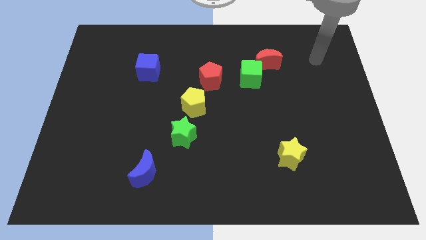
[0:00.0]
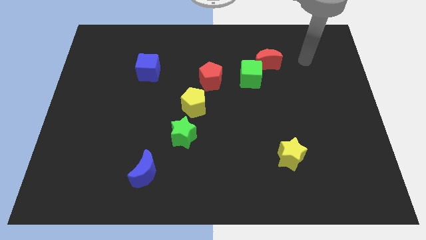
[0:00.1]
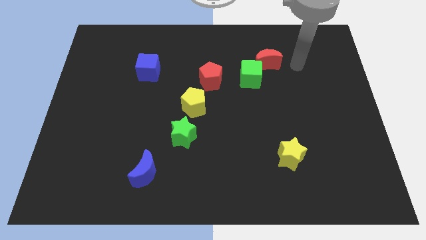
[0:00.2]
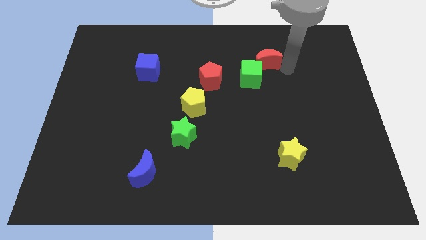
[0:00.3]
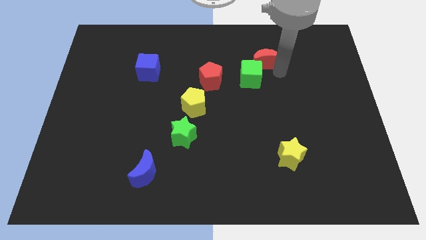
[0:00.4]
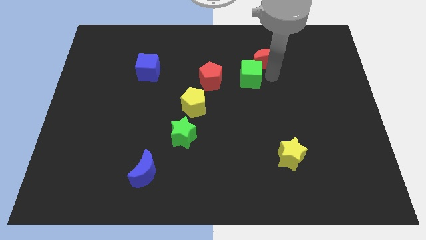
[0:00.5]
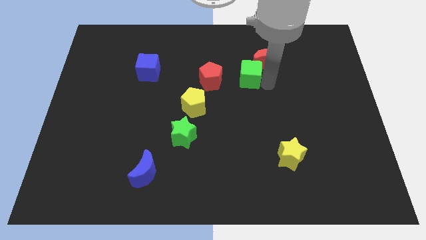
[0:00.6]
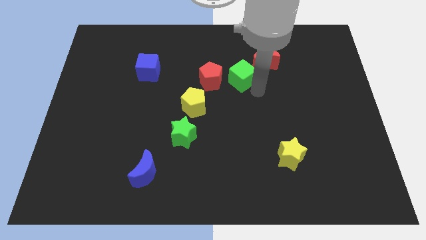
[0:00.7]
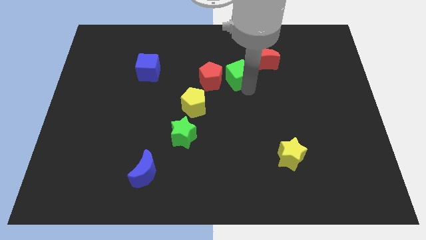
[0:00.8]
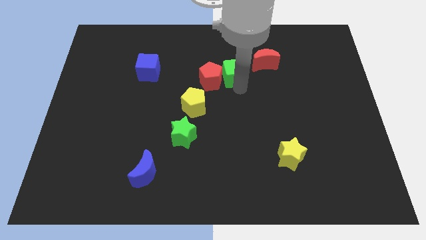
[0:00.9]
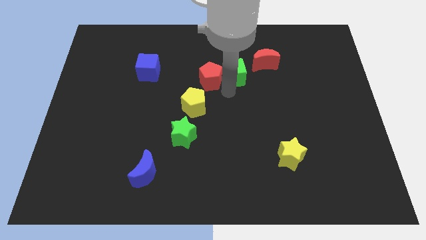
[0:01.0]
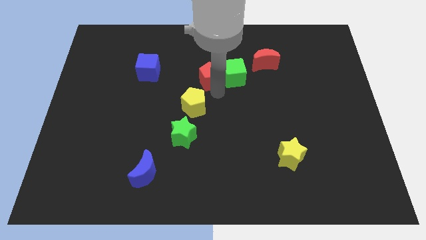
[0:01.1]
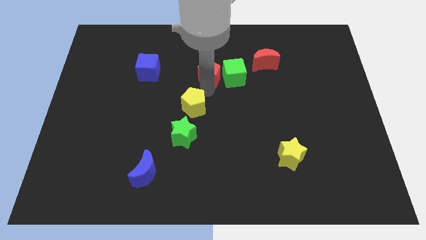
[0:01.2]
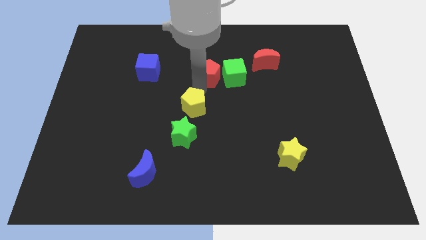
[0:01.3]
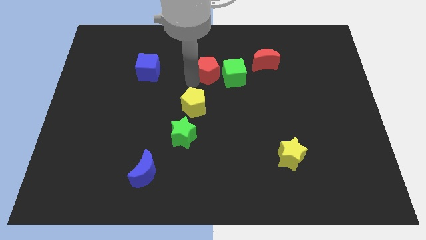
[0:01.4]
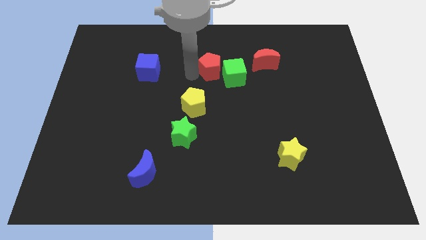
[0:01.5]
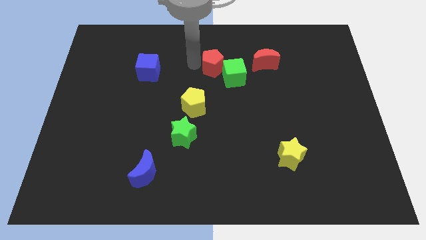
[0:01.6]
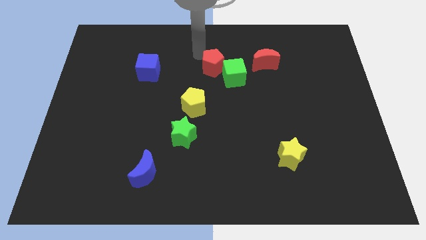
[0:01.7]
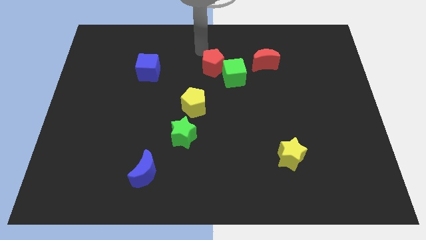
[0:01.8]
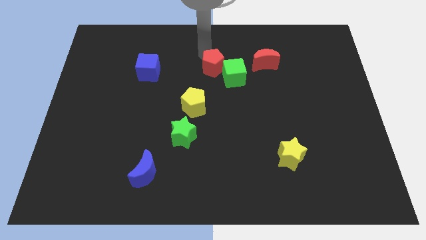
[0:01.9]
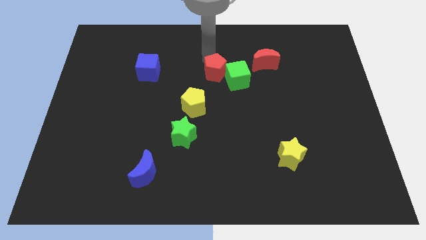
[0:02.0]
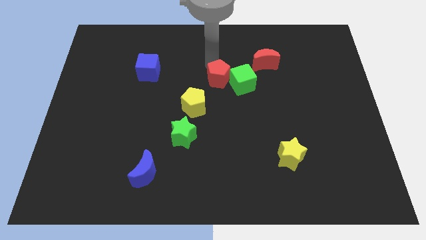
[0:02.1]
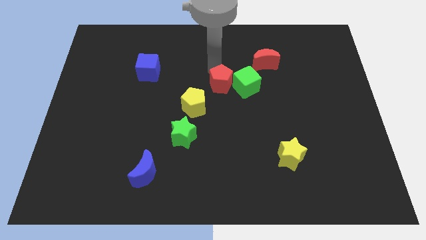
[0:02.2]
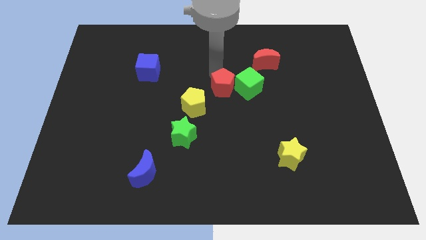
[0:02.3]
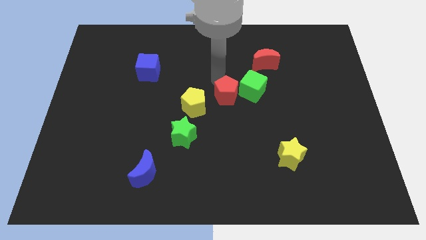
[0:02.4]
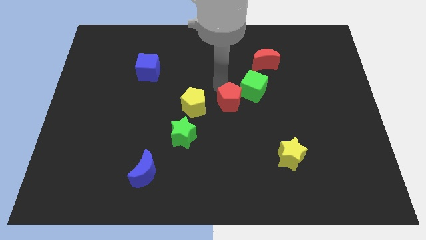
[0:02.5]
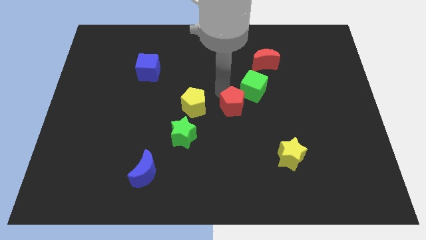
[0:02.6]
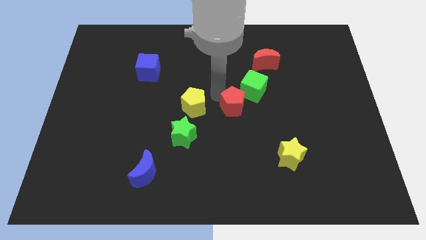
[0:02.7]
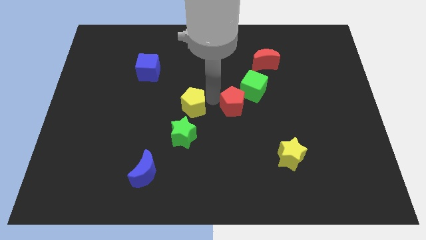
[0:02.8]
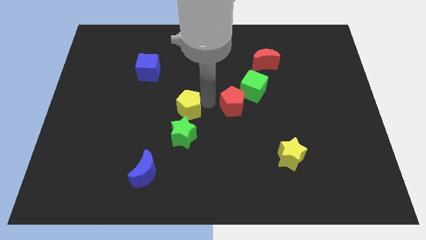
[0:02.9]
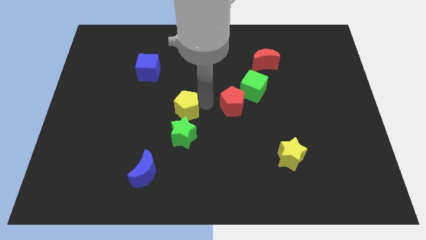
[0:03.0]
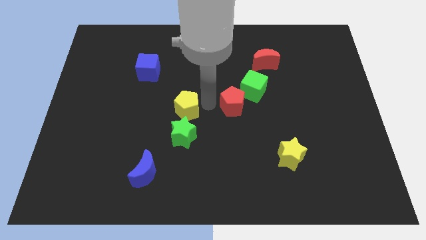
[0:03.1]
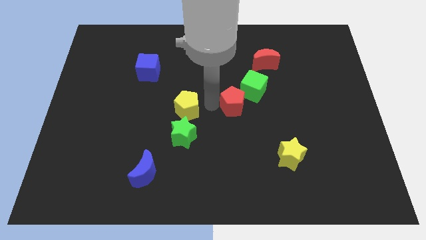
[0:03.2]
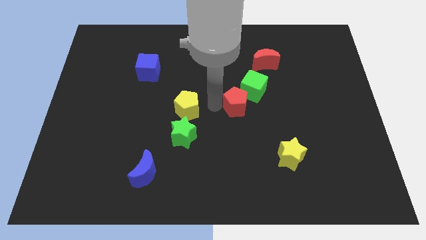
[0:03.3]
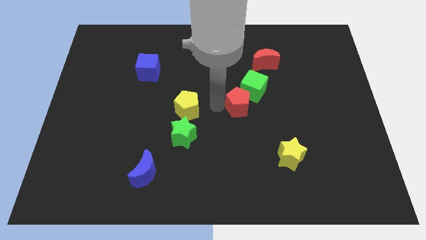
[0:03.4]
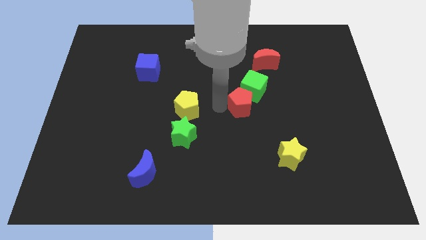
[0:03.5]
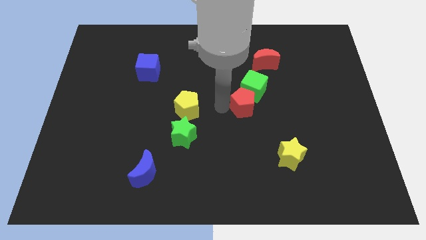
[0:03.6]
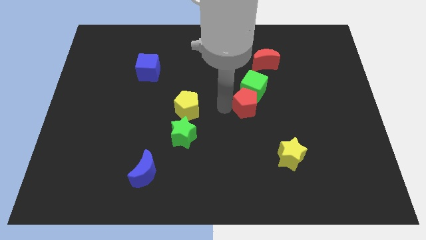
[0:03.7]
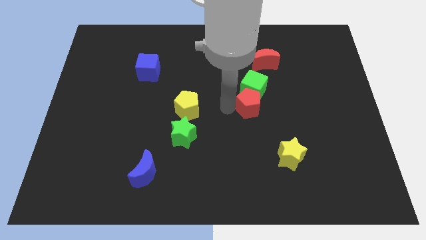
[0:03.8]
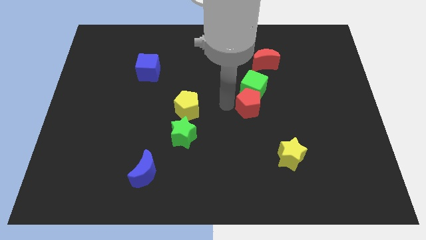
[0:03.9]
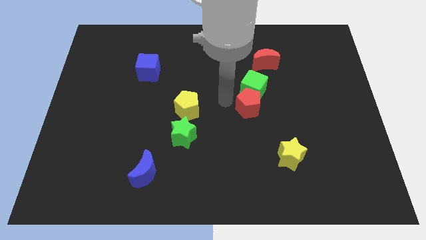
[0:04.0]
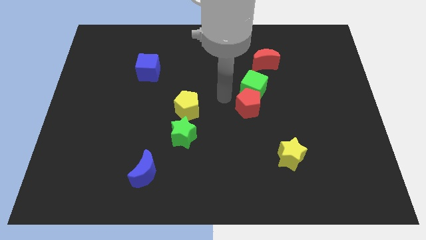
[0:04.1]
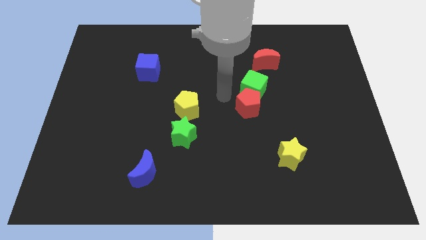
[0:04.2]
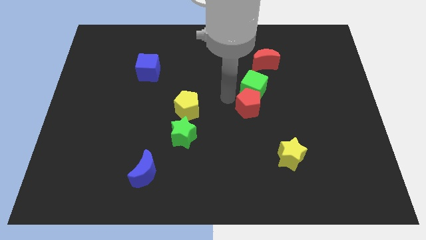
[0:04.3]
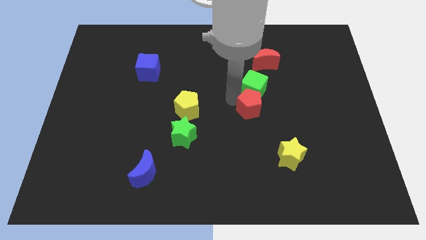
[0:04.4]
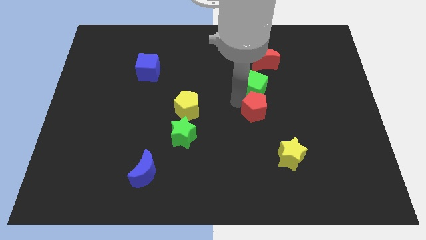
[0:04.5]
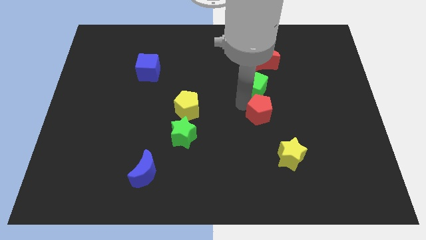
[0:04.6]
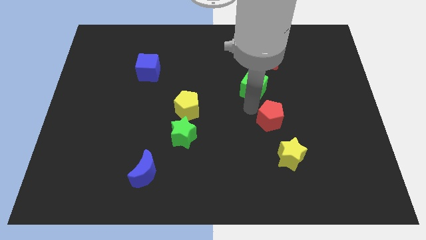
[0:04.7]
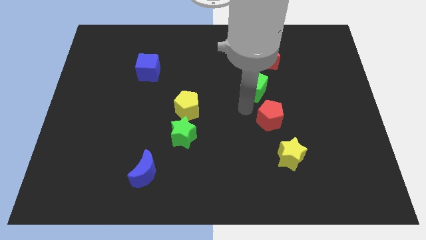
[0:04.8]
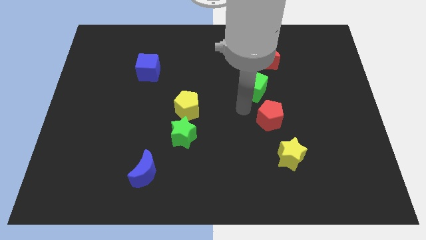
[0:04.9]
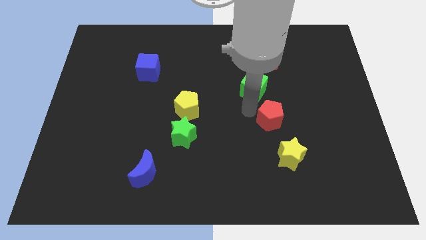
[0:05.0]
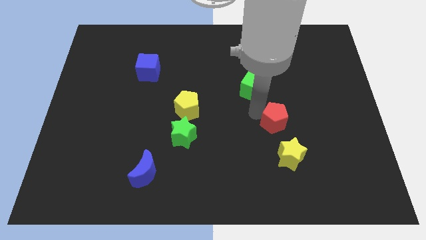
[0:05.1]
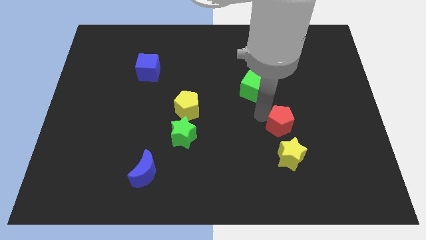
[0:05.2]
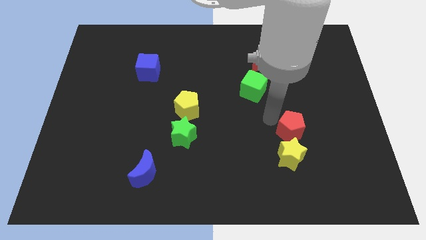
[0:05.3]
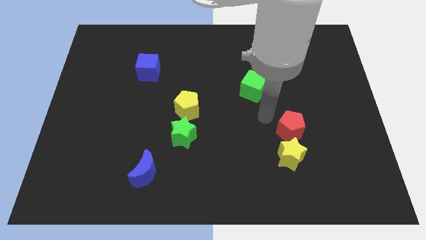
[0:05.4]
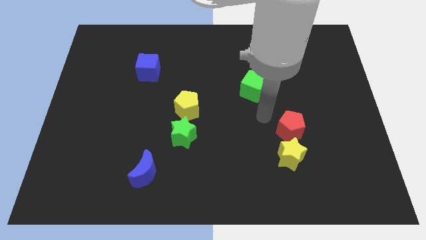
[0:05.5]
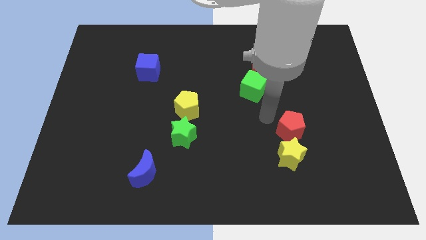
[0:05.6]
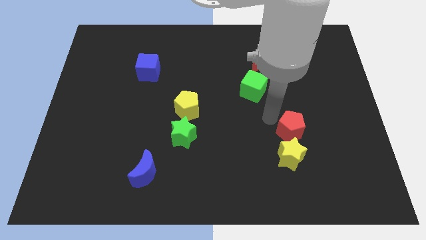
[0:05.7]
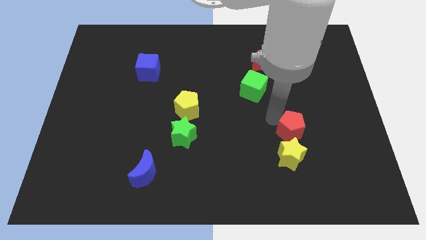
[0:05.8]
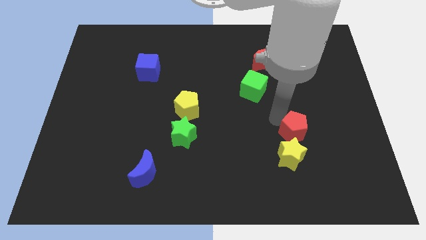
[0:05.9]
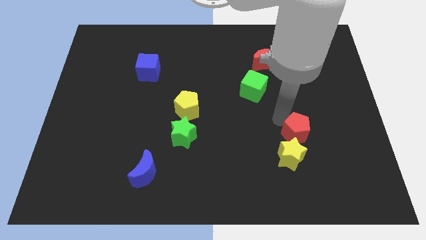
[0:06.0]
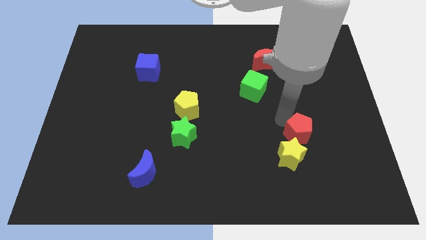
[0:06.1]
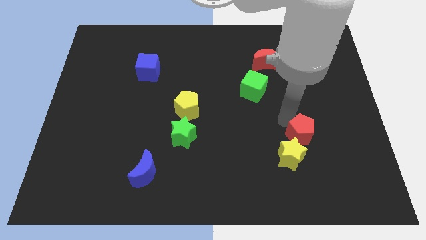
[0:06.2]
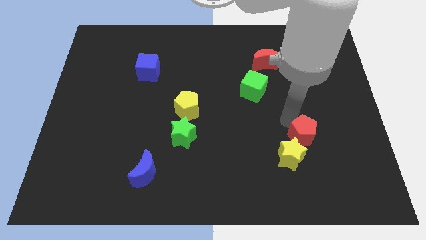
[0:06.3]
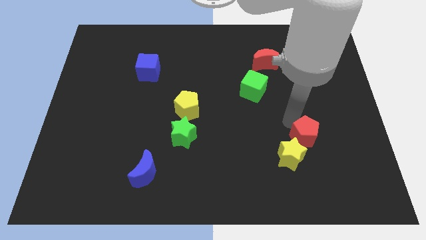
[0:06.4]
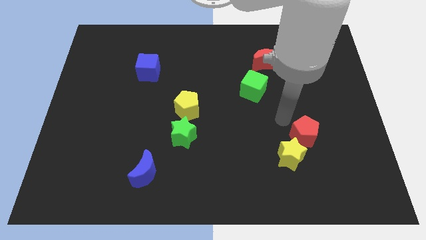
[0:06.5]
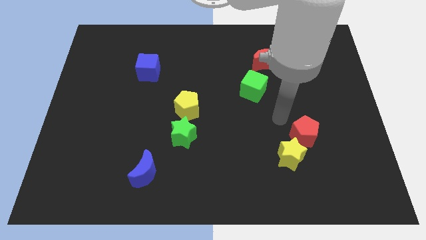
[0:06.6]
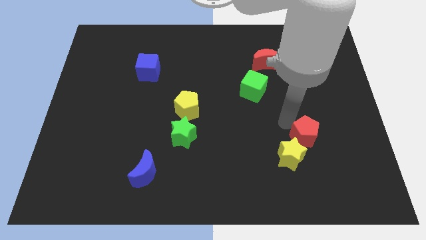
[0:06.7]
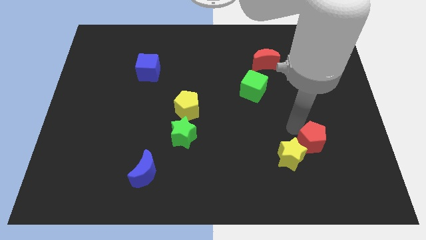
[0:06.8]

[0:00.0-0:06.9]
move the red pentagon right of the yellow star

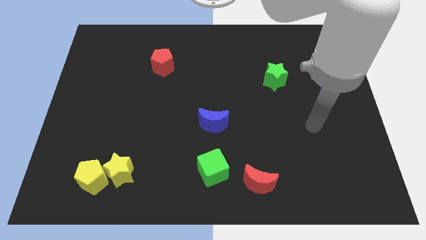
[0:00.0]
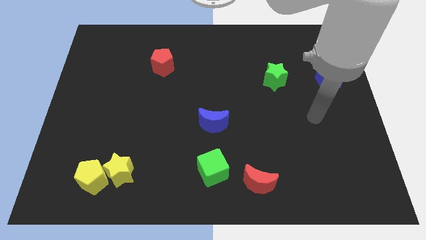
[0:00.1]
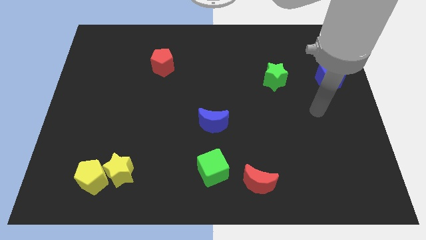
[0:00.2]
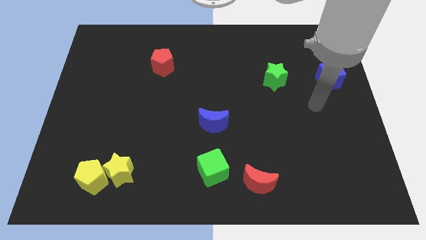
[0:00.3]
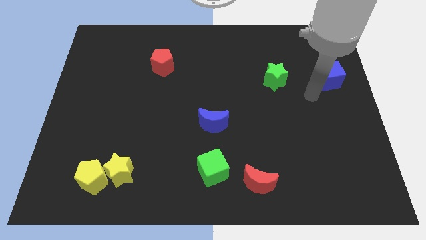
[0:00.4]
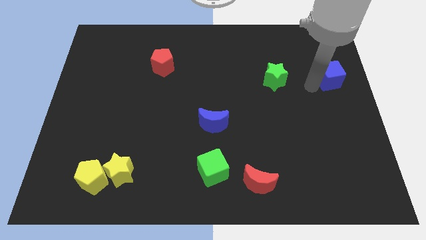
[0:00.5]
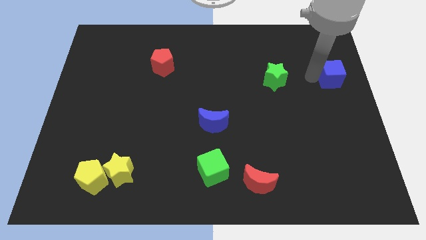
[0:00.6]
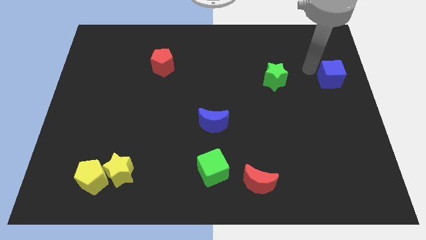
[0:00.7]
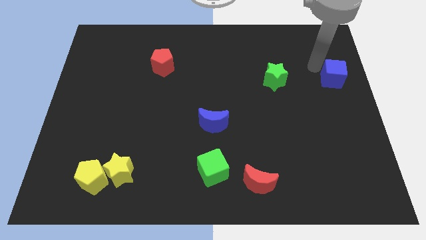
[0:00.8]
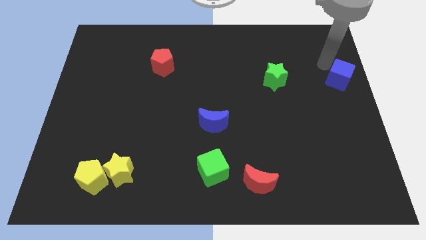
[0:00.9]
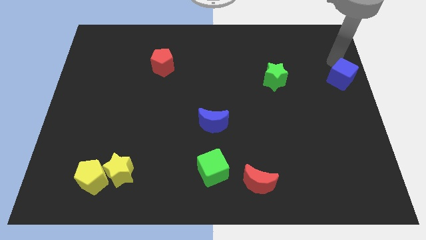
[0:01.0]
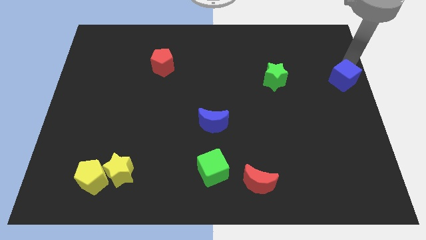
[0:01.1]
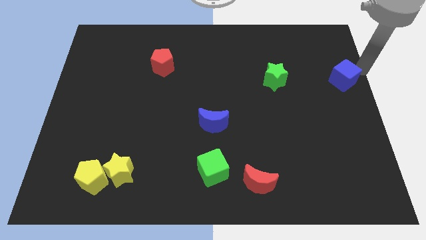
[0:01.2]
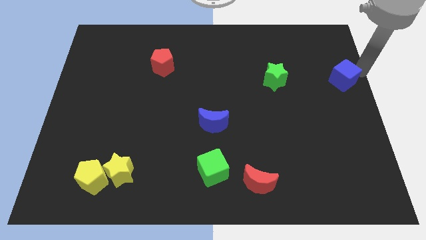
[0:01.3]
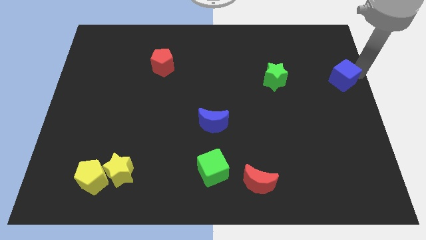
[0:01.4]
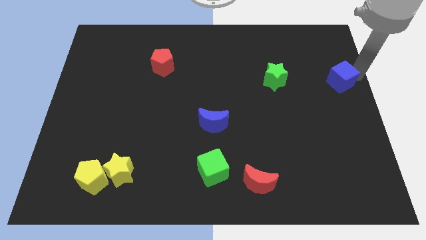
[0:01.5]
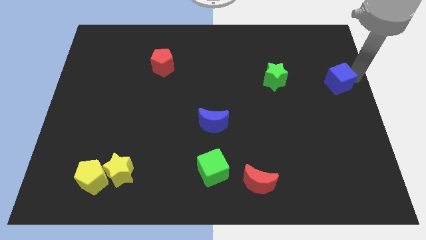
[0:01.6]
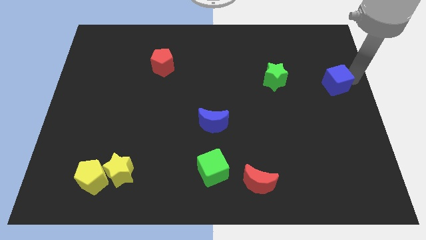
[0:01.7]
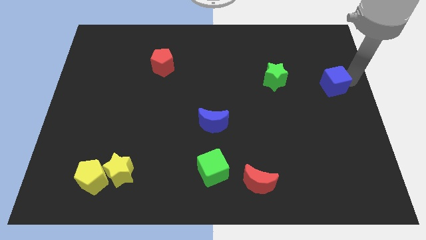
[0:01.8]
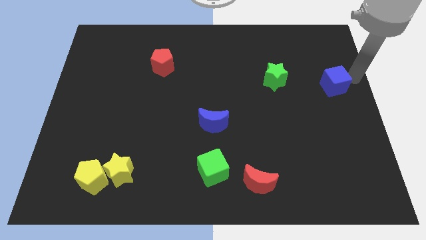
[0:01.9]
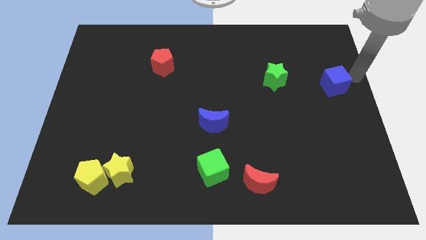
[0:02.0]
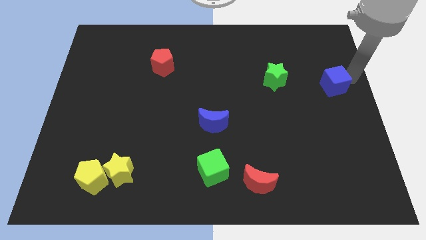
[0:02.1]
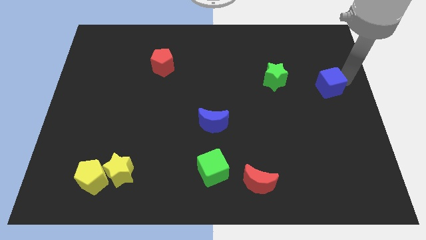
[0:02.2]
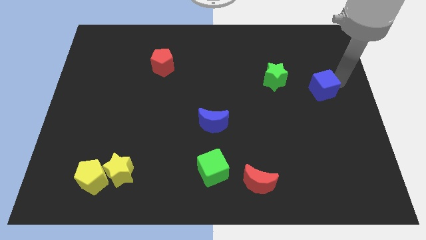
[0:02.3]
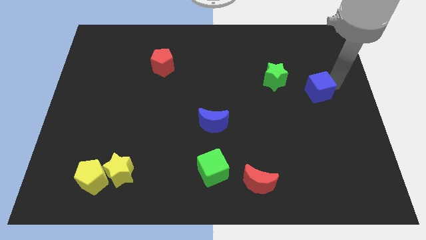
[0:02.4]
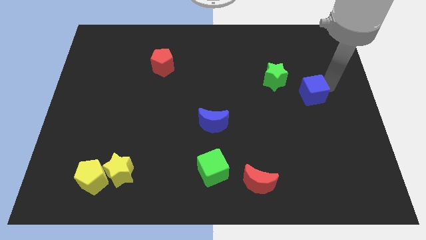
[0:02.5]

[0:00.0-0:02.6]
move the blue cube to the bottom right of the green star
